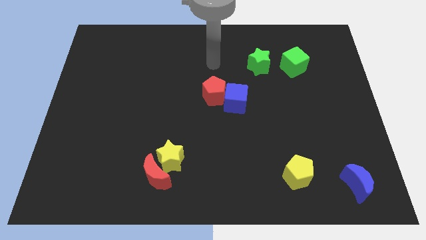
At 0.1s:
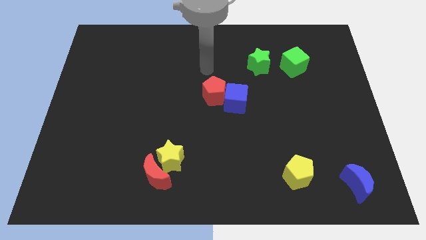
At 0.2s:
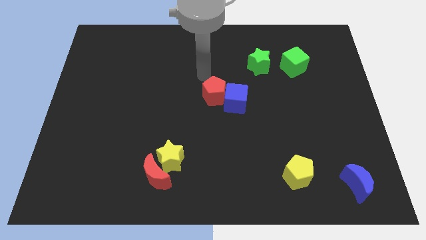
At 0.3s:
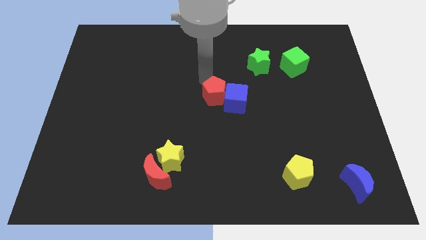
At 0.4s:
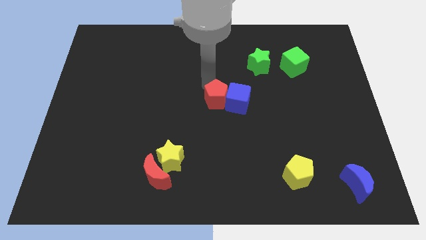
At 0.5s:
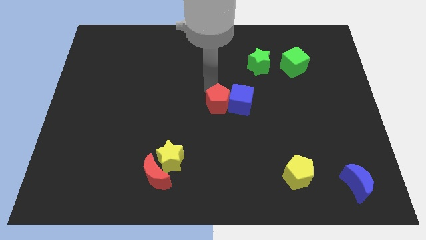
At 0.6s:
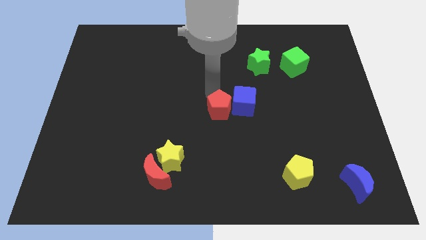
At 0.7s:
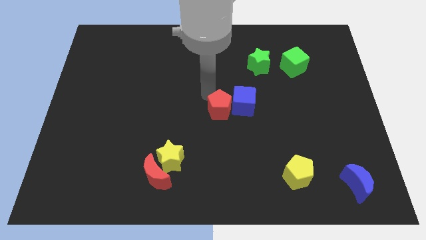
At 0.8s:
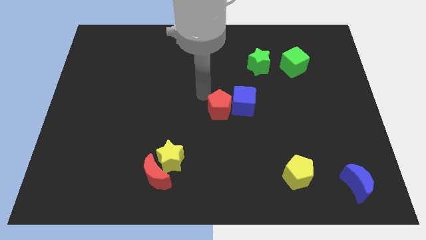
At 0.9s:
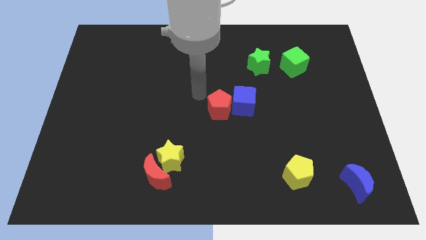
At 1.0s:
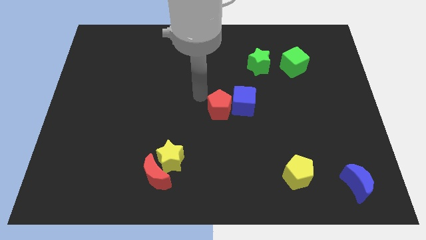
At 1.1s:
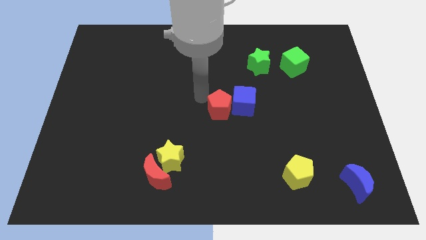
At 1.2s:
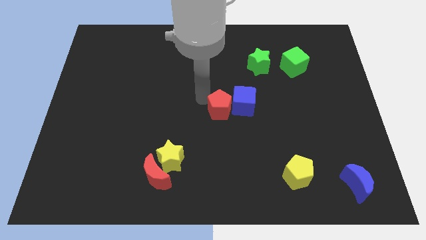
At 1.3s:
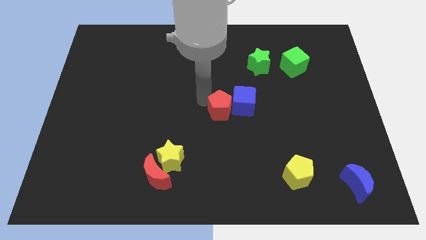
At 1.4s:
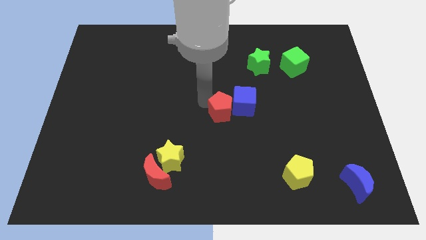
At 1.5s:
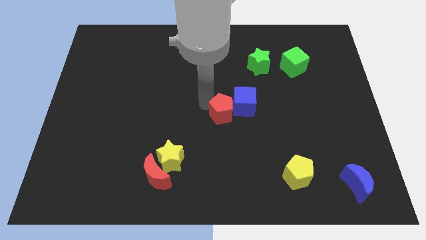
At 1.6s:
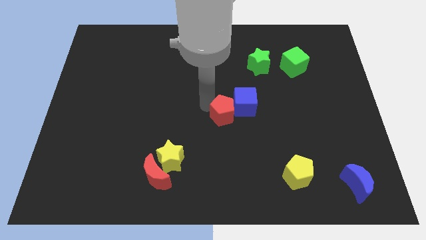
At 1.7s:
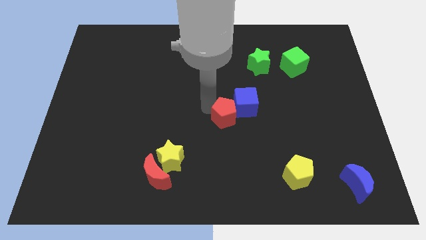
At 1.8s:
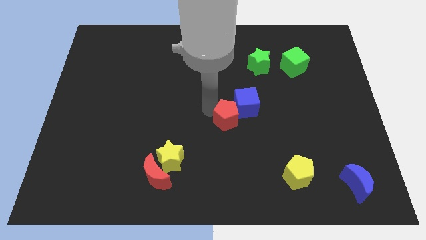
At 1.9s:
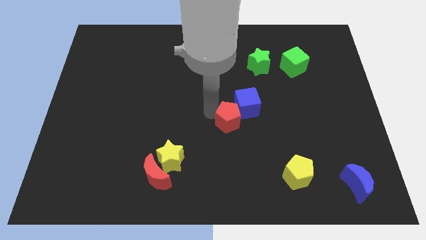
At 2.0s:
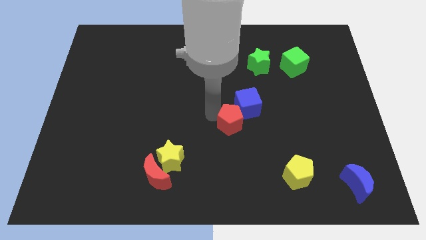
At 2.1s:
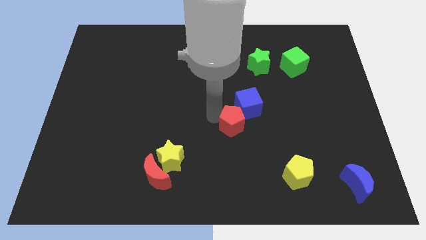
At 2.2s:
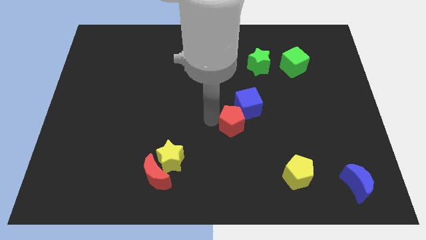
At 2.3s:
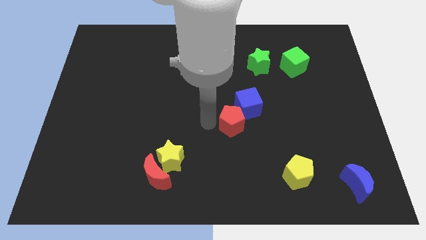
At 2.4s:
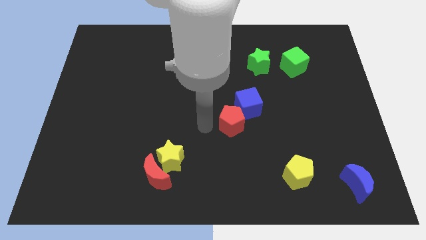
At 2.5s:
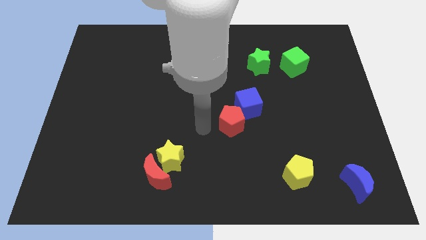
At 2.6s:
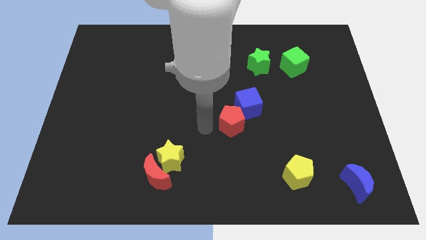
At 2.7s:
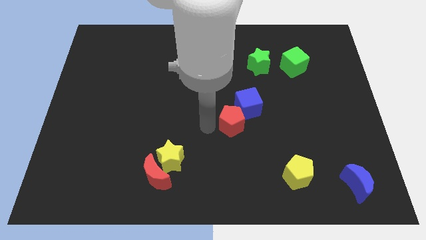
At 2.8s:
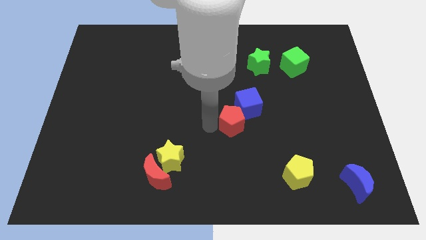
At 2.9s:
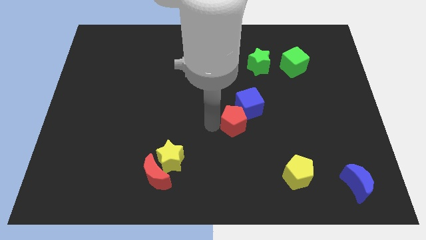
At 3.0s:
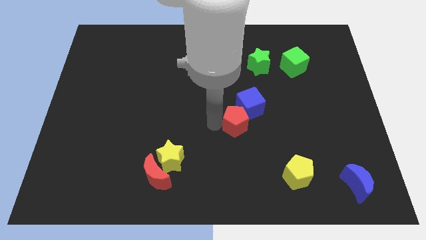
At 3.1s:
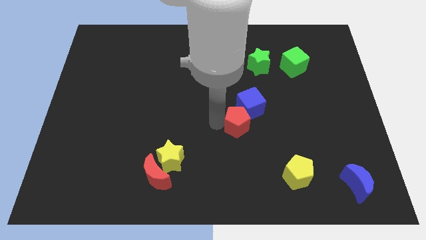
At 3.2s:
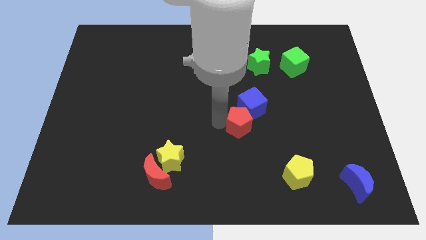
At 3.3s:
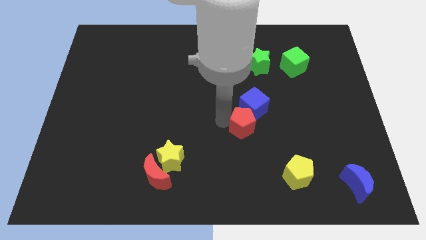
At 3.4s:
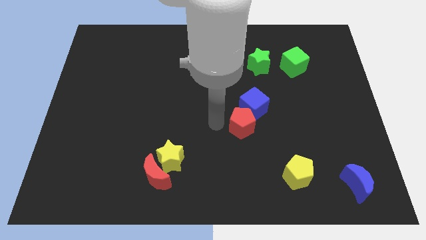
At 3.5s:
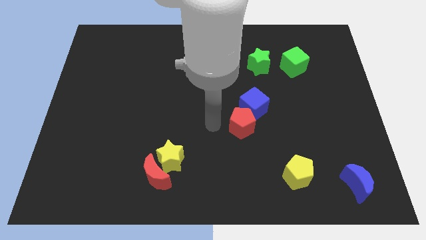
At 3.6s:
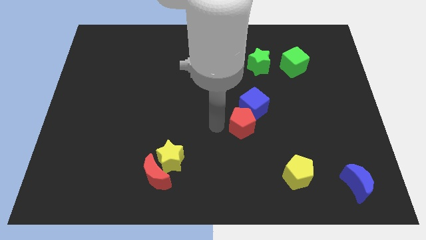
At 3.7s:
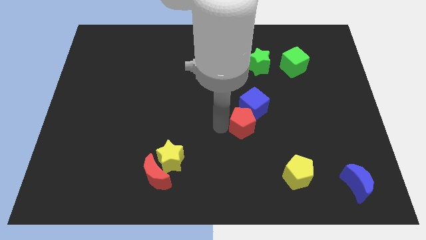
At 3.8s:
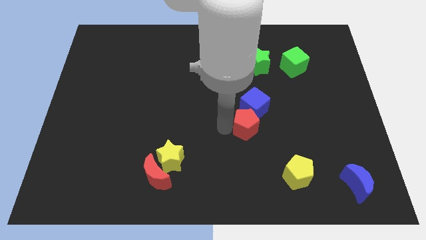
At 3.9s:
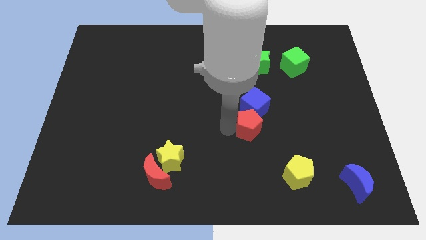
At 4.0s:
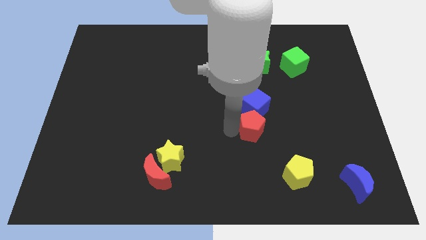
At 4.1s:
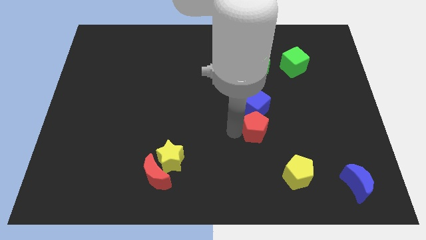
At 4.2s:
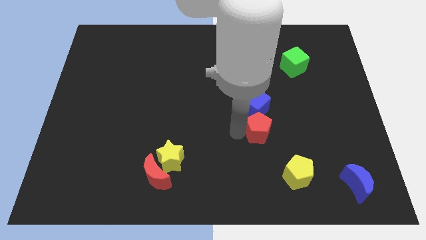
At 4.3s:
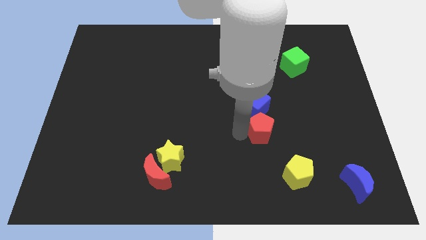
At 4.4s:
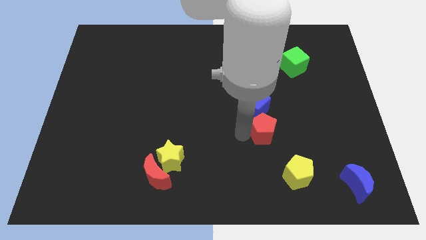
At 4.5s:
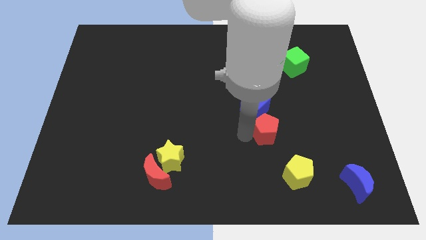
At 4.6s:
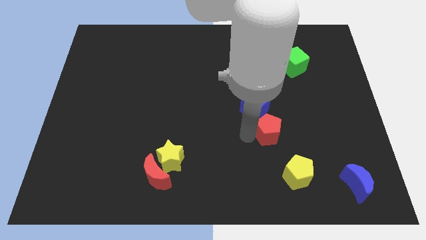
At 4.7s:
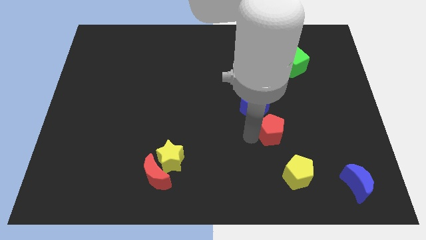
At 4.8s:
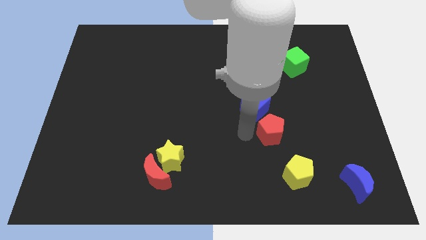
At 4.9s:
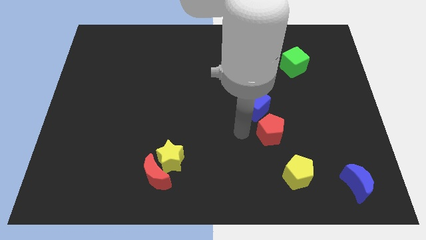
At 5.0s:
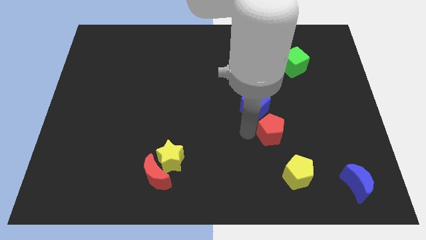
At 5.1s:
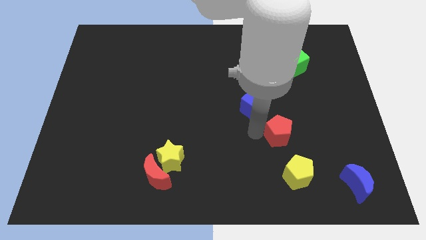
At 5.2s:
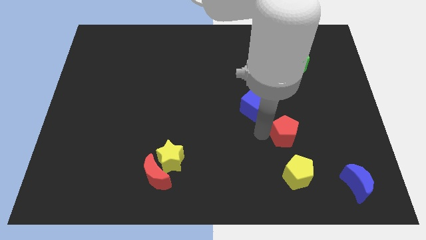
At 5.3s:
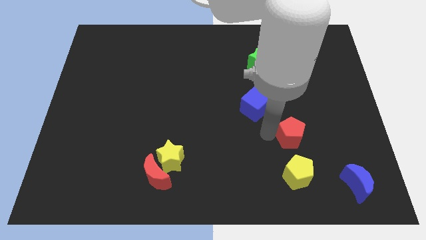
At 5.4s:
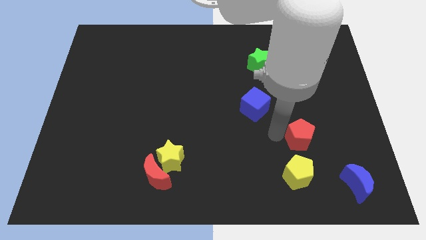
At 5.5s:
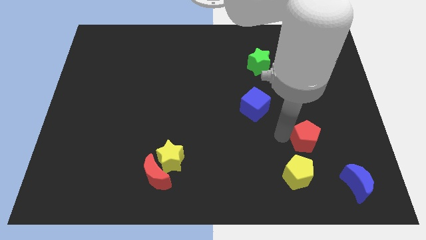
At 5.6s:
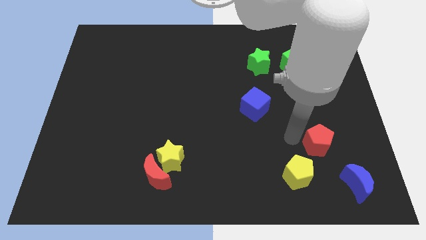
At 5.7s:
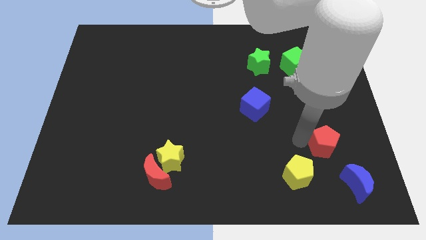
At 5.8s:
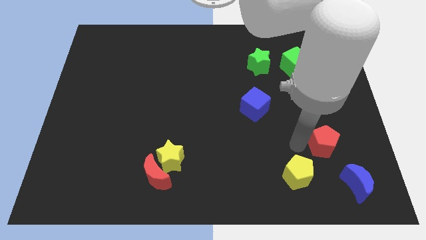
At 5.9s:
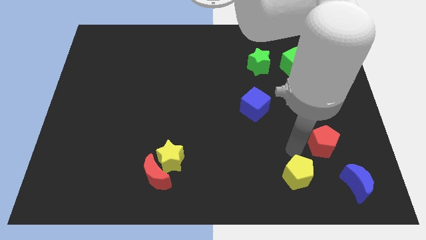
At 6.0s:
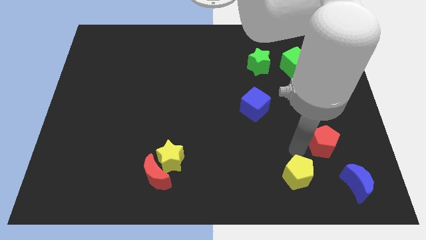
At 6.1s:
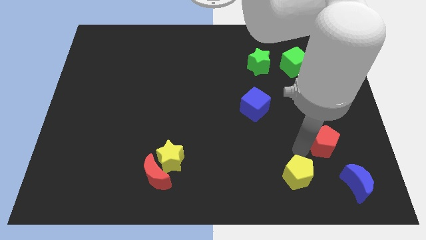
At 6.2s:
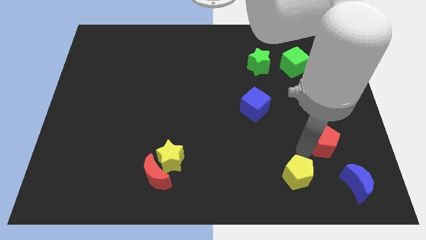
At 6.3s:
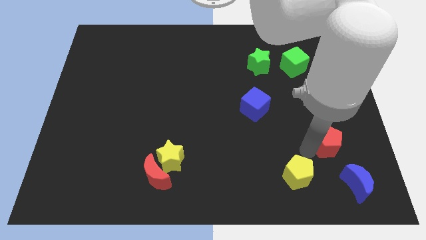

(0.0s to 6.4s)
slide the red pentagon to the top side of the blue moon
